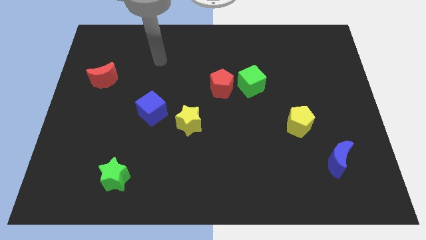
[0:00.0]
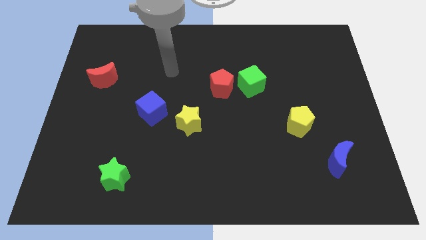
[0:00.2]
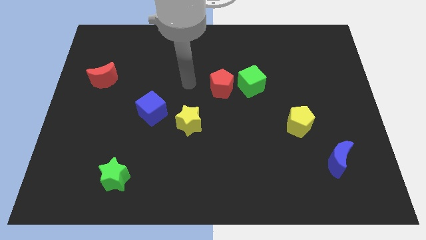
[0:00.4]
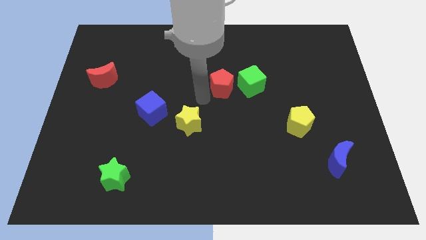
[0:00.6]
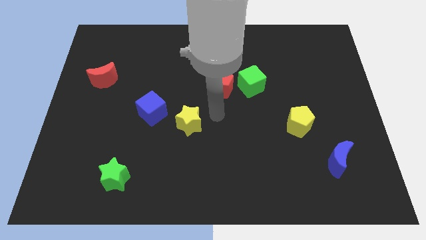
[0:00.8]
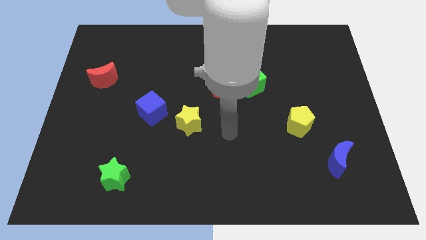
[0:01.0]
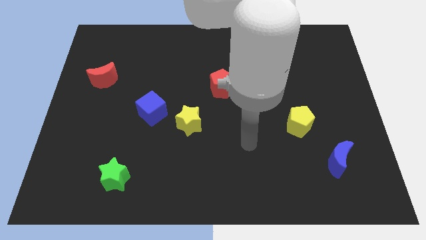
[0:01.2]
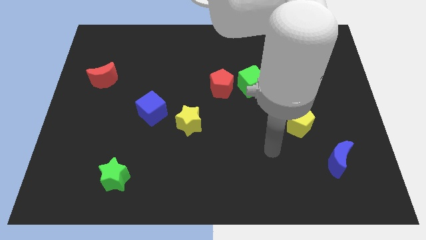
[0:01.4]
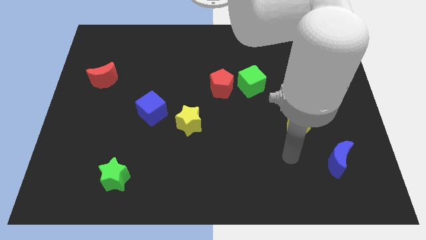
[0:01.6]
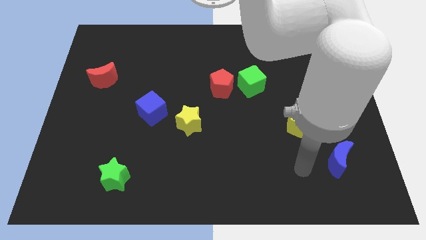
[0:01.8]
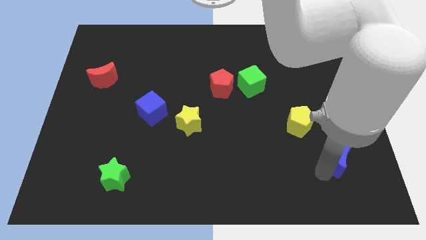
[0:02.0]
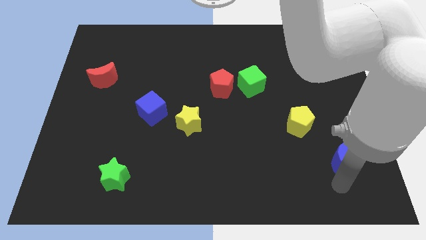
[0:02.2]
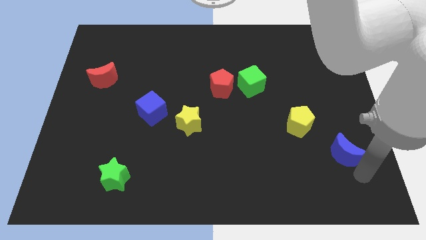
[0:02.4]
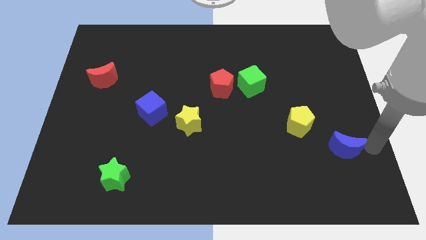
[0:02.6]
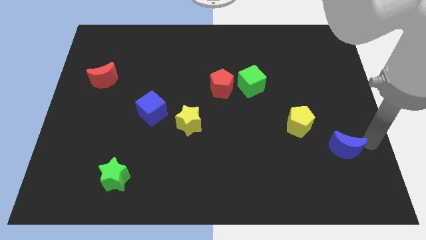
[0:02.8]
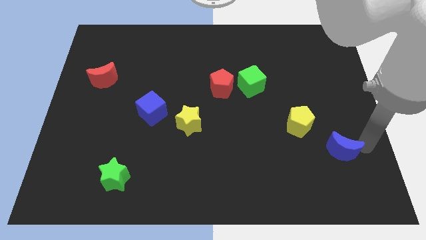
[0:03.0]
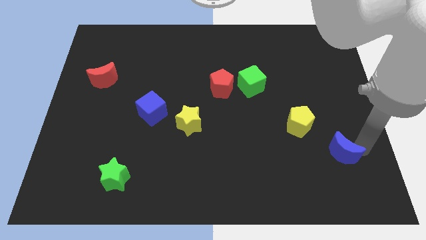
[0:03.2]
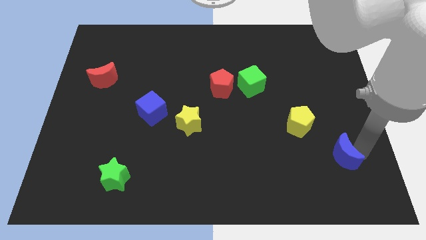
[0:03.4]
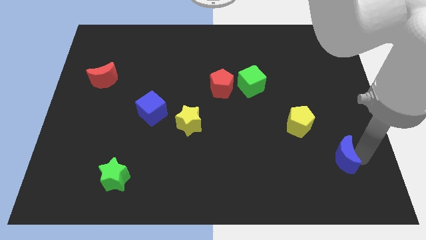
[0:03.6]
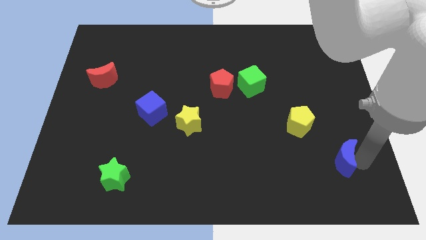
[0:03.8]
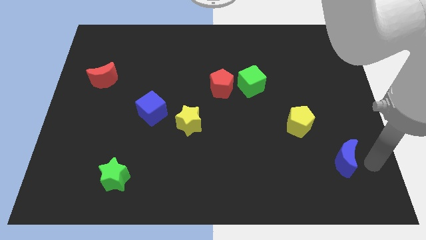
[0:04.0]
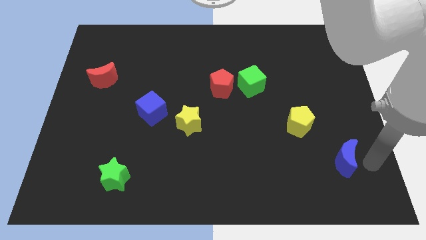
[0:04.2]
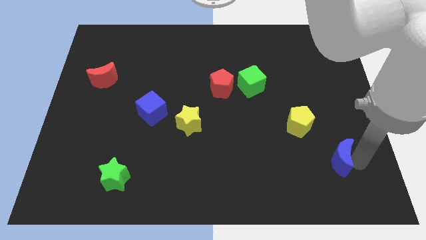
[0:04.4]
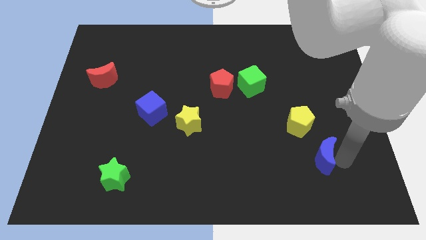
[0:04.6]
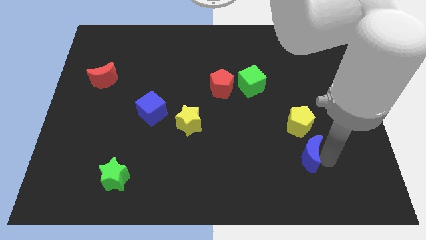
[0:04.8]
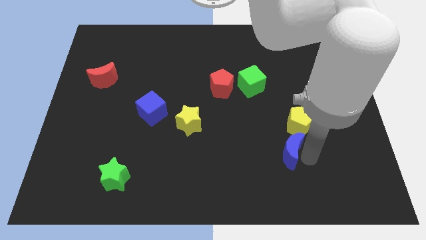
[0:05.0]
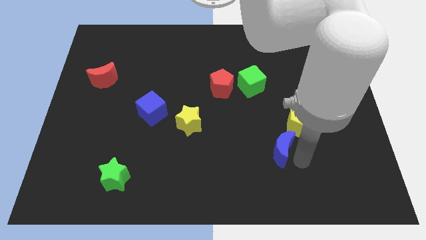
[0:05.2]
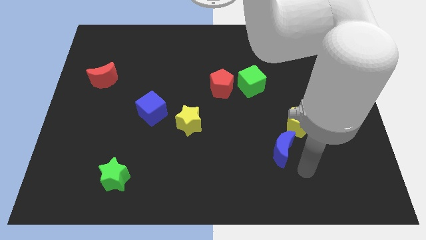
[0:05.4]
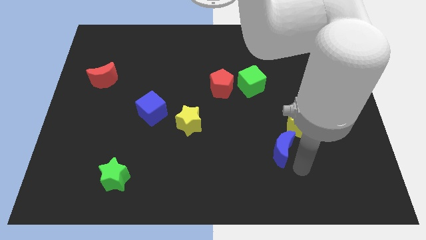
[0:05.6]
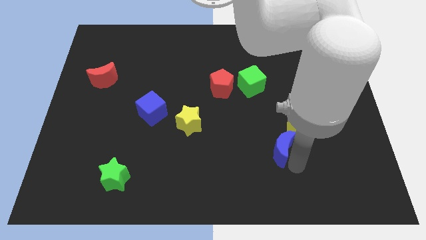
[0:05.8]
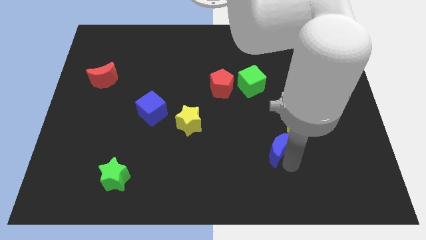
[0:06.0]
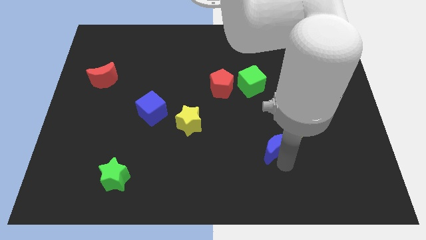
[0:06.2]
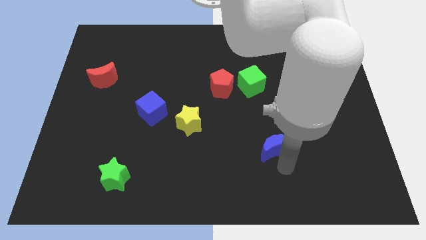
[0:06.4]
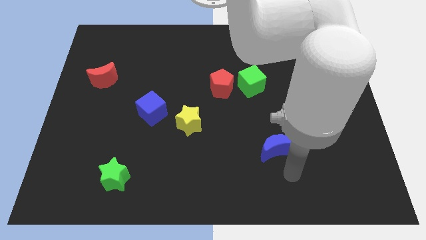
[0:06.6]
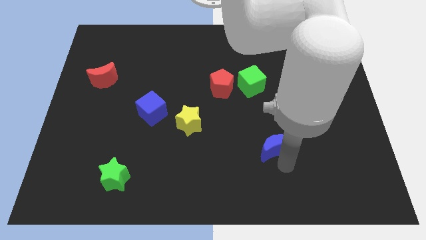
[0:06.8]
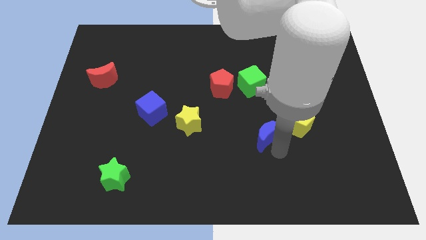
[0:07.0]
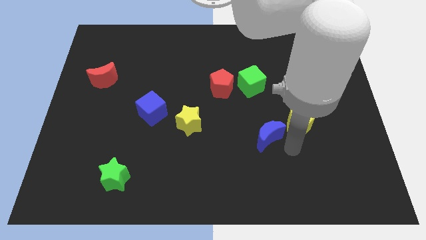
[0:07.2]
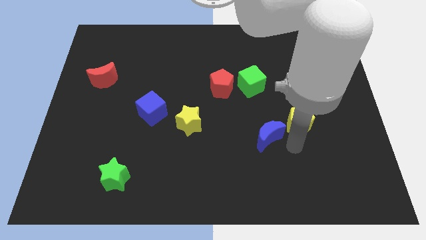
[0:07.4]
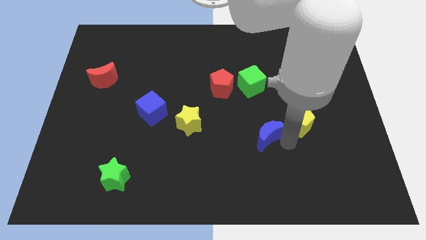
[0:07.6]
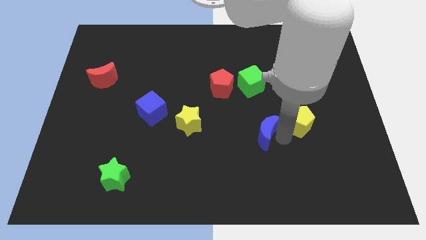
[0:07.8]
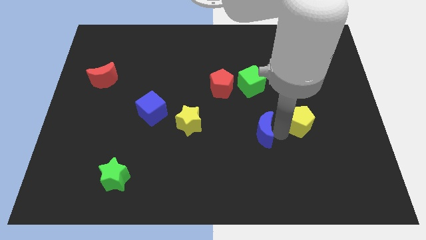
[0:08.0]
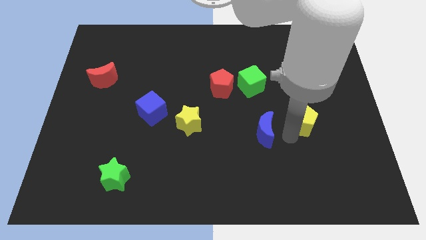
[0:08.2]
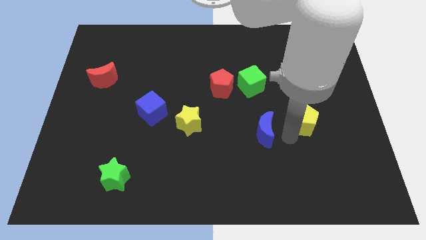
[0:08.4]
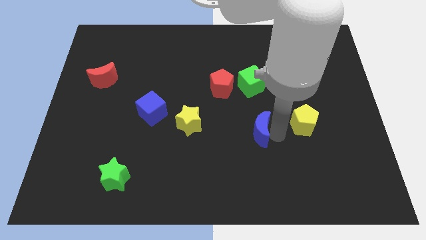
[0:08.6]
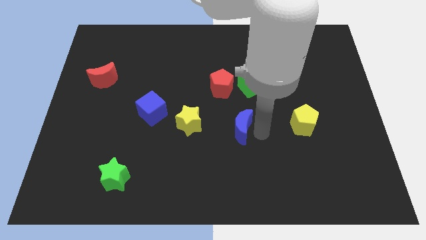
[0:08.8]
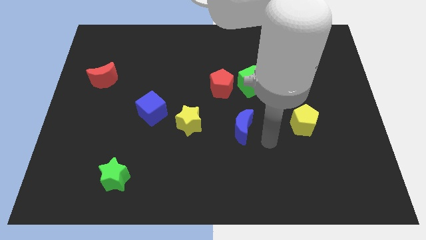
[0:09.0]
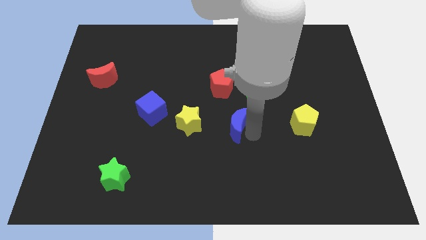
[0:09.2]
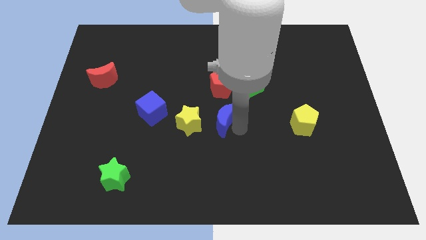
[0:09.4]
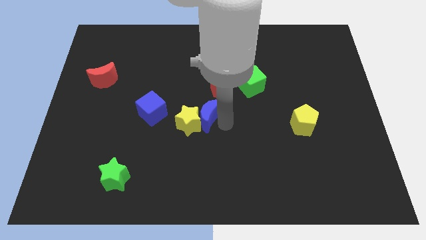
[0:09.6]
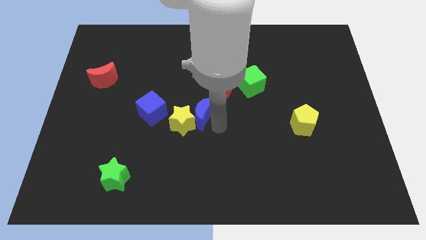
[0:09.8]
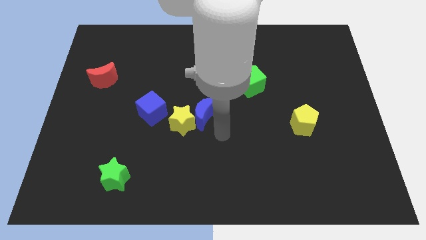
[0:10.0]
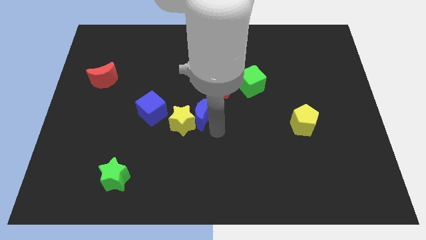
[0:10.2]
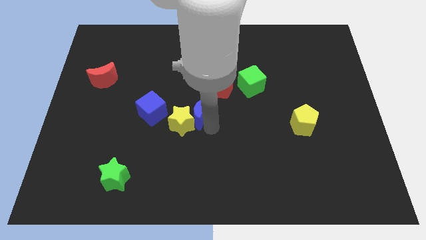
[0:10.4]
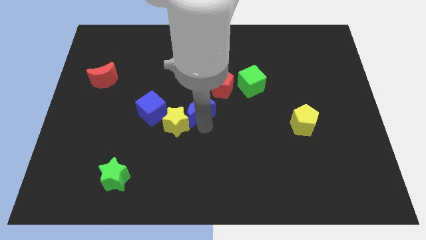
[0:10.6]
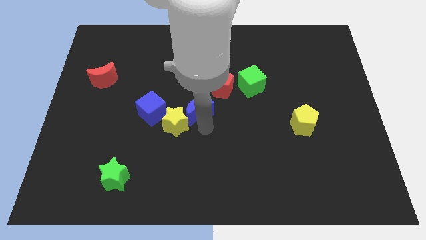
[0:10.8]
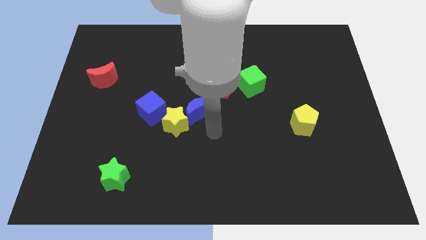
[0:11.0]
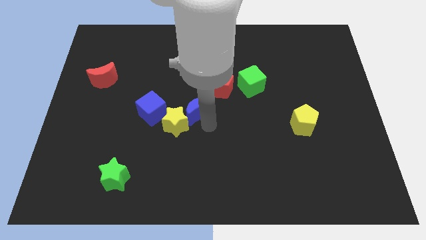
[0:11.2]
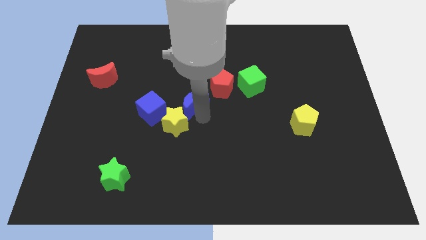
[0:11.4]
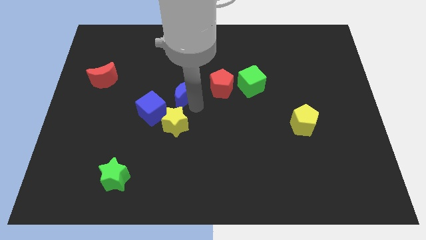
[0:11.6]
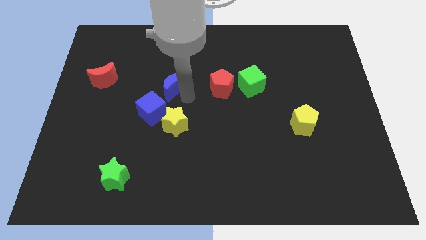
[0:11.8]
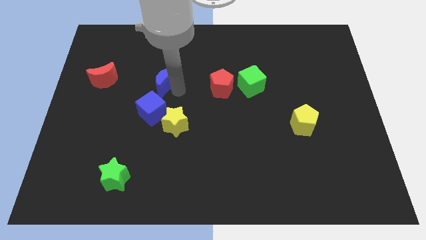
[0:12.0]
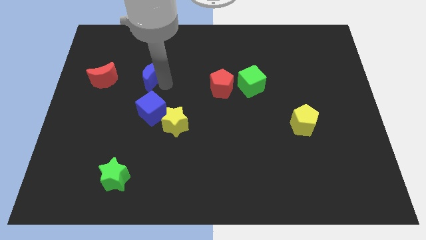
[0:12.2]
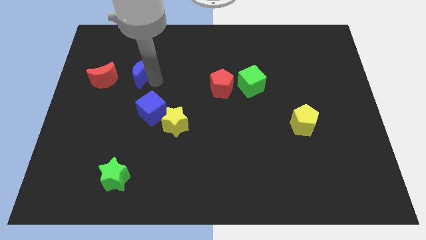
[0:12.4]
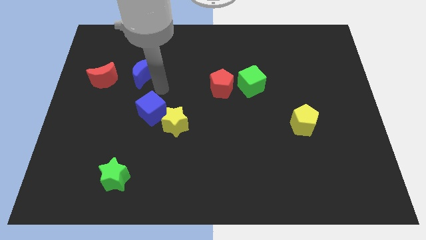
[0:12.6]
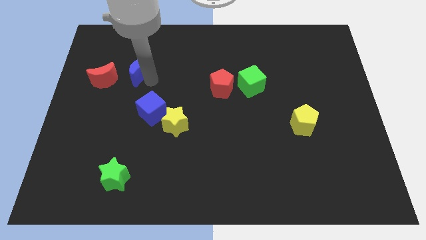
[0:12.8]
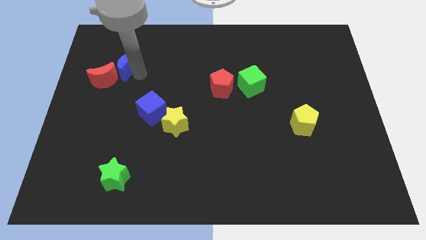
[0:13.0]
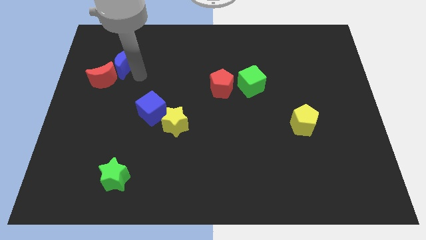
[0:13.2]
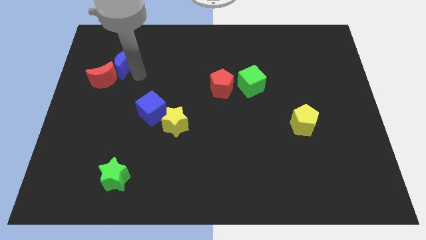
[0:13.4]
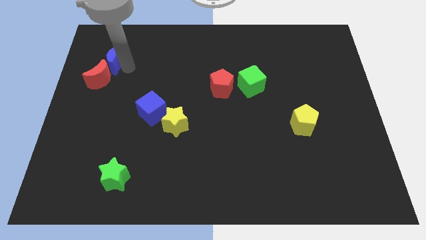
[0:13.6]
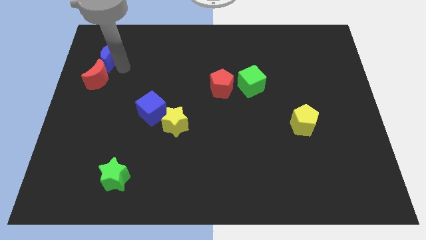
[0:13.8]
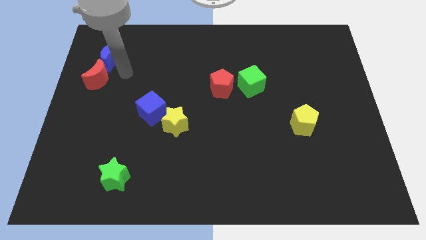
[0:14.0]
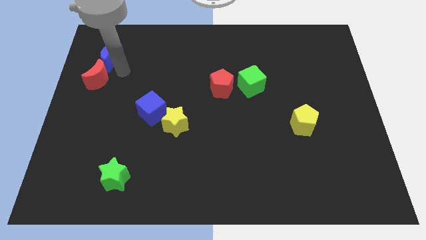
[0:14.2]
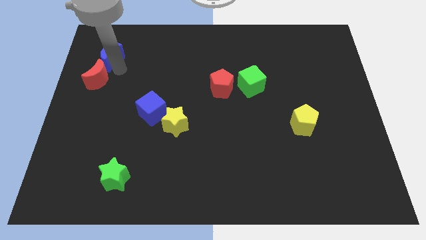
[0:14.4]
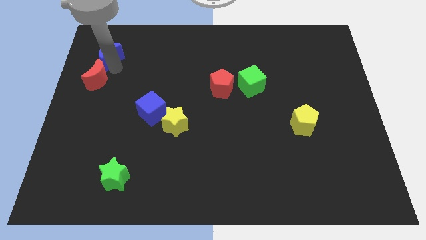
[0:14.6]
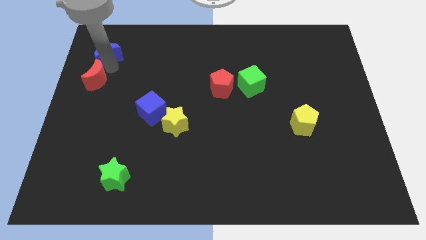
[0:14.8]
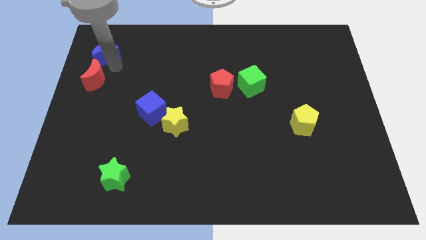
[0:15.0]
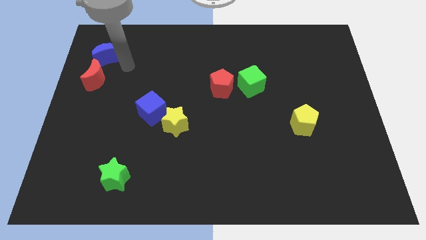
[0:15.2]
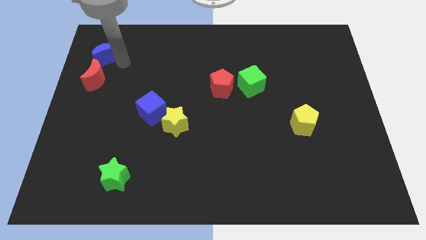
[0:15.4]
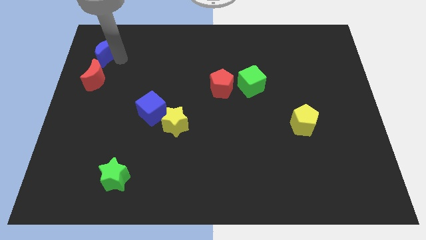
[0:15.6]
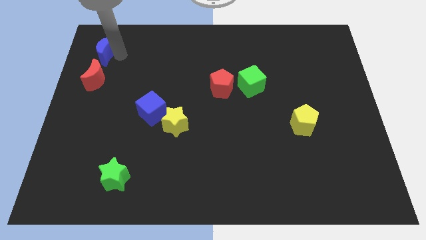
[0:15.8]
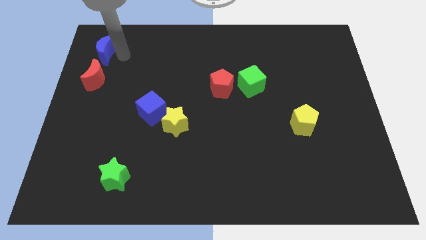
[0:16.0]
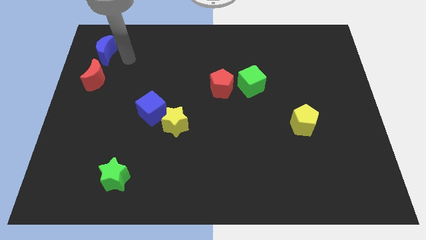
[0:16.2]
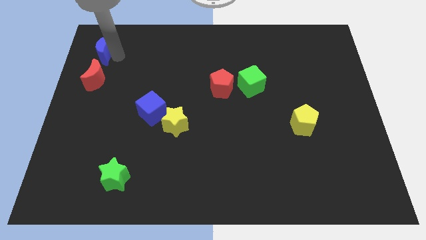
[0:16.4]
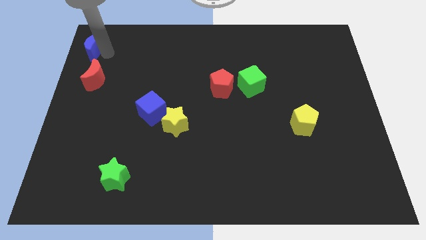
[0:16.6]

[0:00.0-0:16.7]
push the blue moon to the top left of the board
